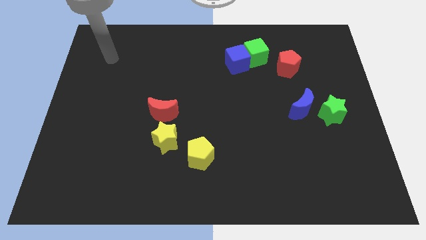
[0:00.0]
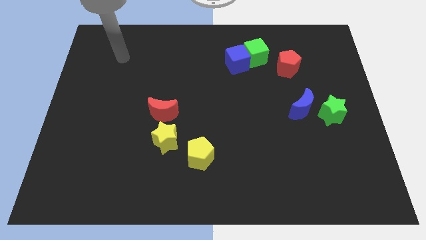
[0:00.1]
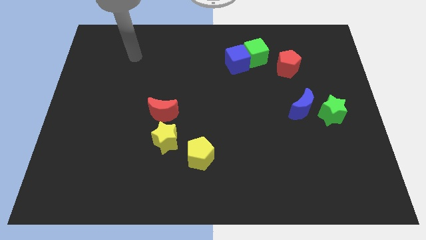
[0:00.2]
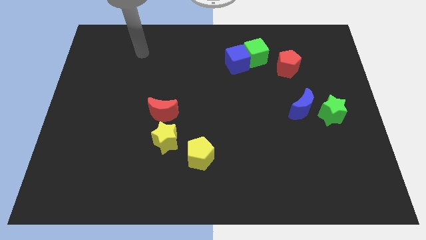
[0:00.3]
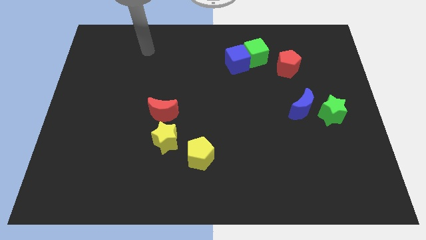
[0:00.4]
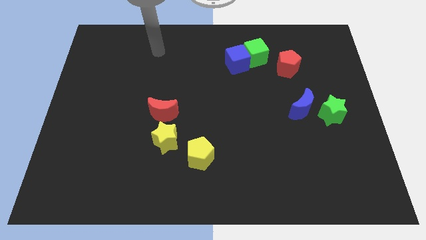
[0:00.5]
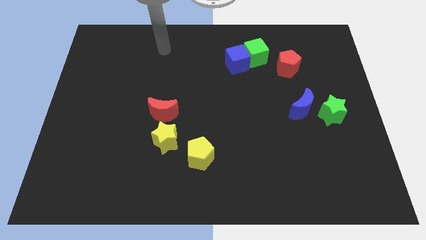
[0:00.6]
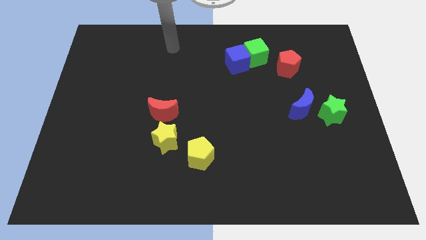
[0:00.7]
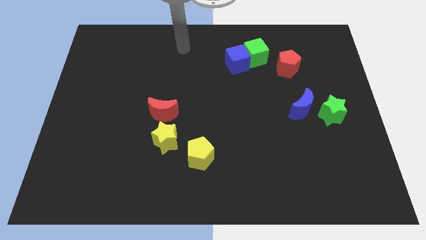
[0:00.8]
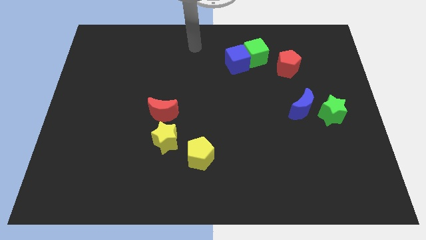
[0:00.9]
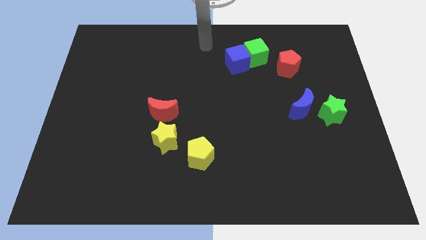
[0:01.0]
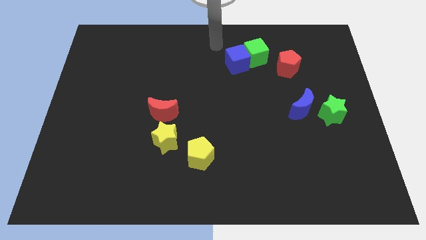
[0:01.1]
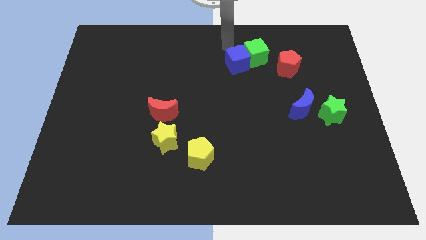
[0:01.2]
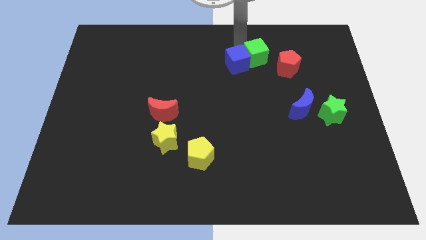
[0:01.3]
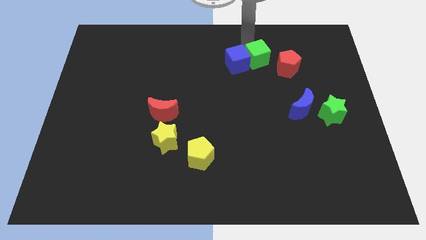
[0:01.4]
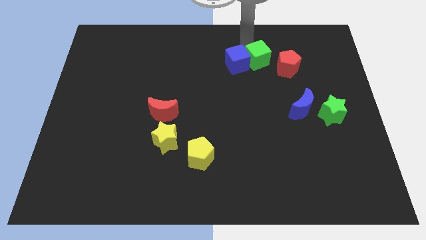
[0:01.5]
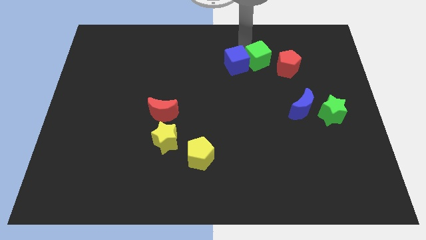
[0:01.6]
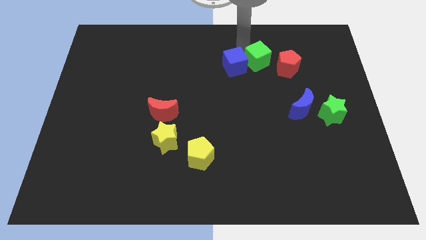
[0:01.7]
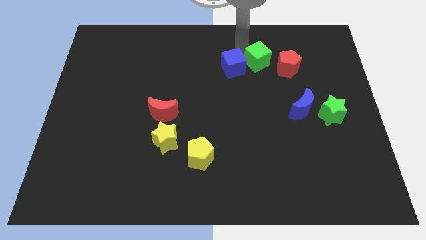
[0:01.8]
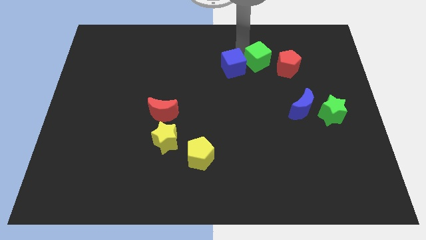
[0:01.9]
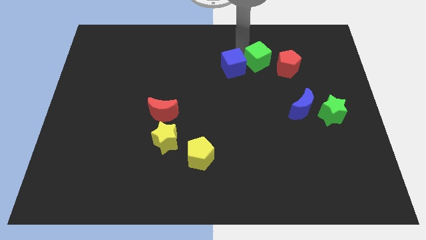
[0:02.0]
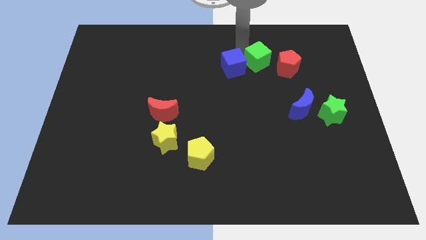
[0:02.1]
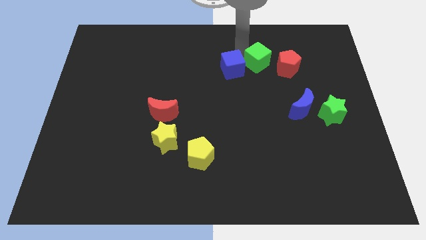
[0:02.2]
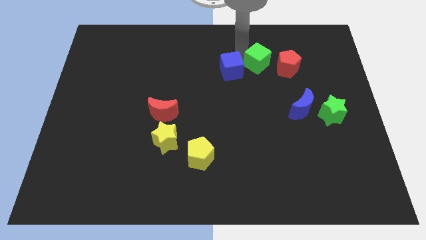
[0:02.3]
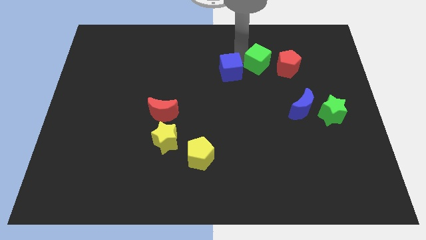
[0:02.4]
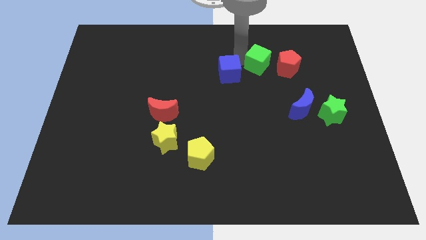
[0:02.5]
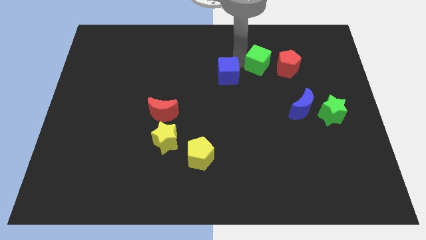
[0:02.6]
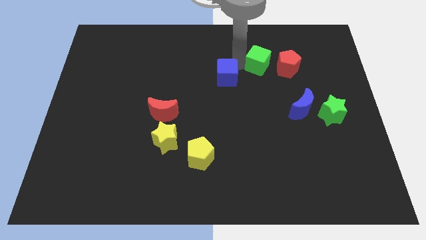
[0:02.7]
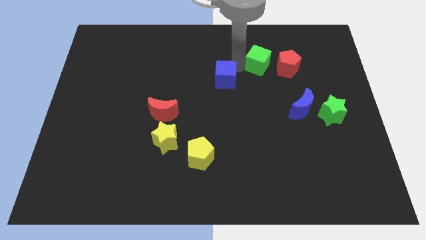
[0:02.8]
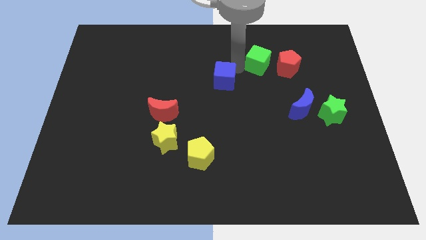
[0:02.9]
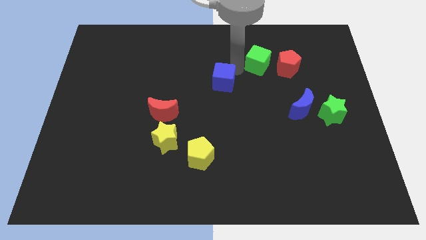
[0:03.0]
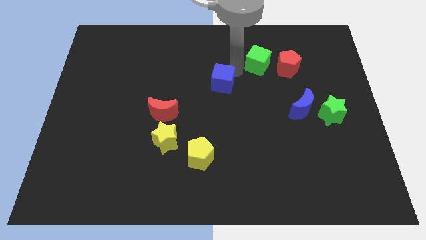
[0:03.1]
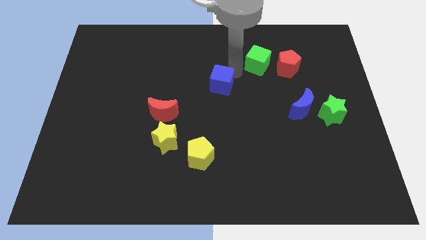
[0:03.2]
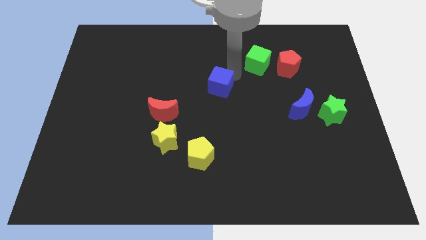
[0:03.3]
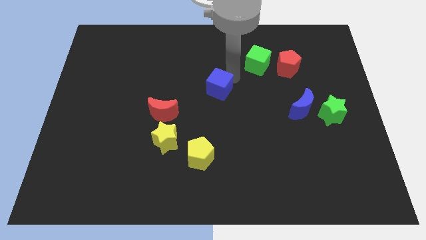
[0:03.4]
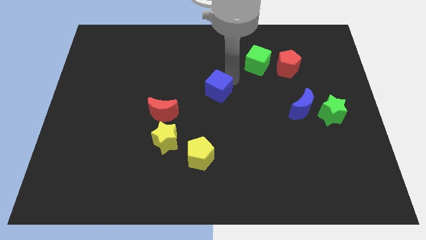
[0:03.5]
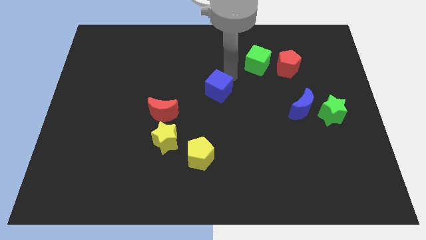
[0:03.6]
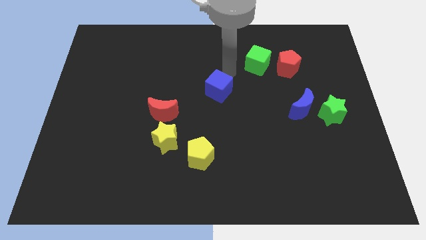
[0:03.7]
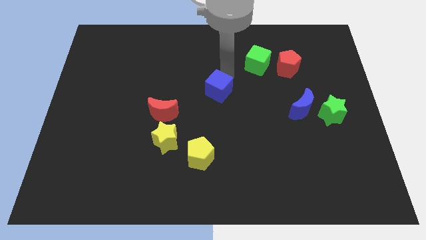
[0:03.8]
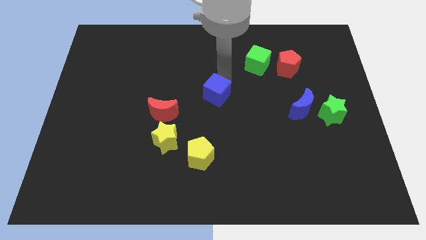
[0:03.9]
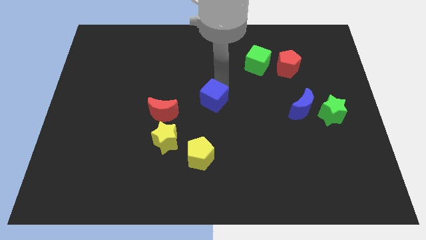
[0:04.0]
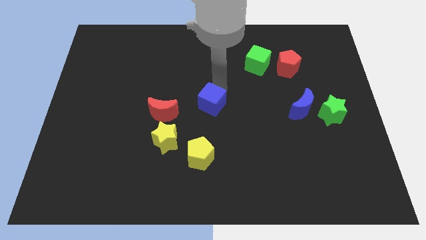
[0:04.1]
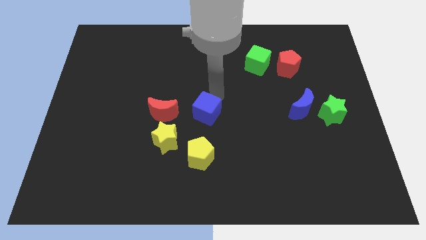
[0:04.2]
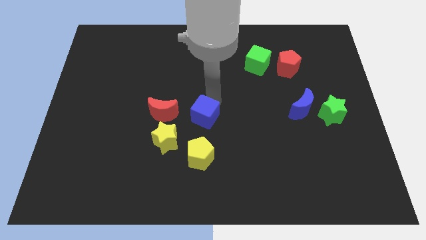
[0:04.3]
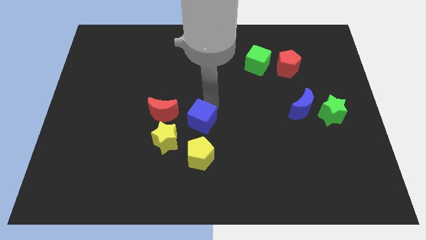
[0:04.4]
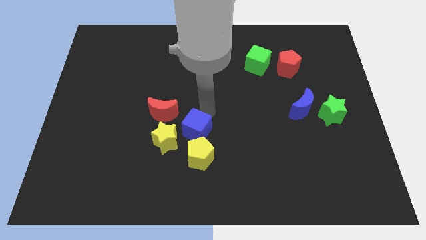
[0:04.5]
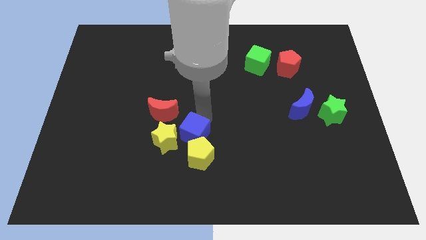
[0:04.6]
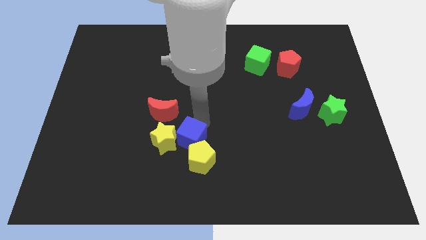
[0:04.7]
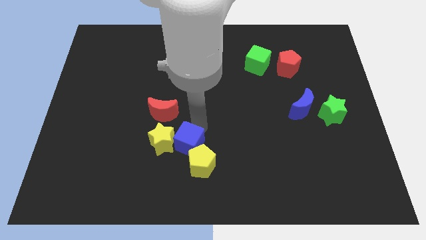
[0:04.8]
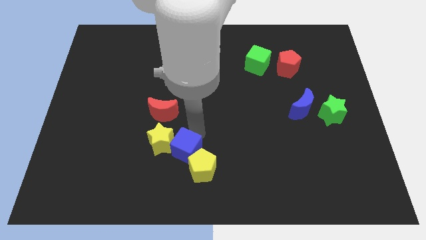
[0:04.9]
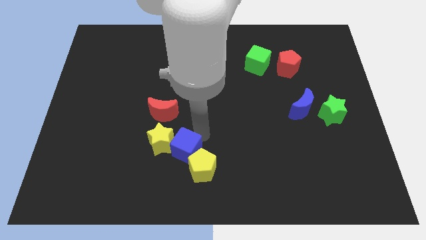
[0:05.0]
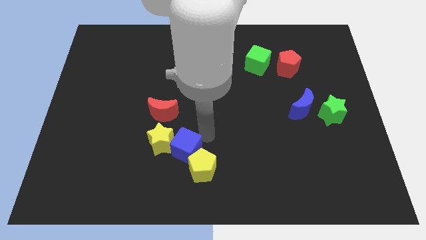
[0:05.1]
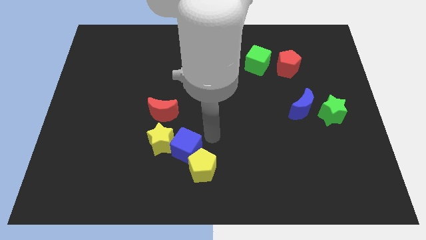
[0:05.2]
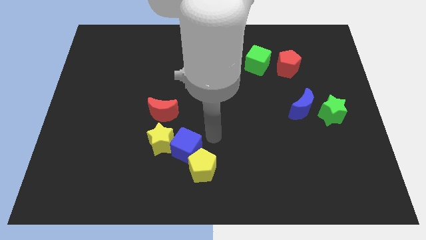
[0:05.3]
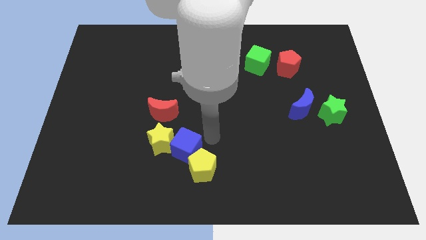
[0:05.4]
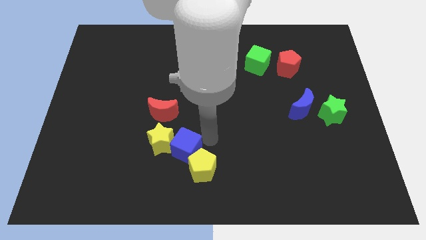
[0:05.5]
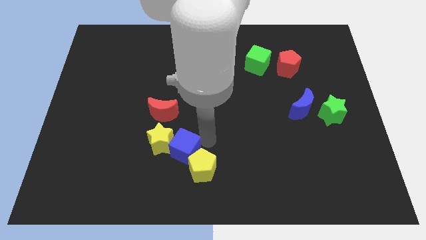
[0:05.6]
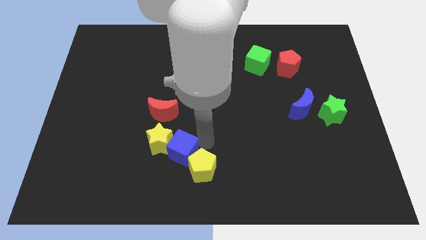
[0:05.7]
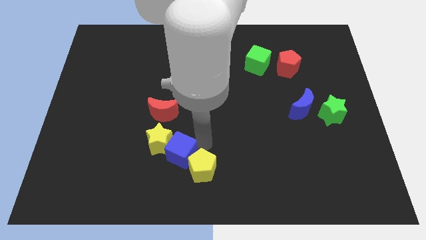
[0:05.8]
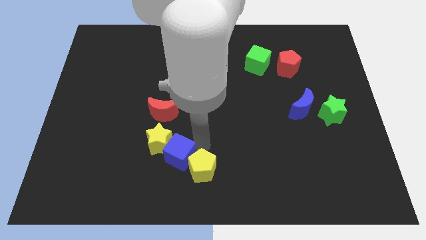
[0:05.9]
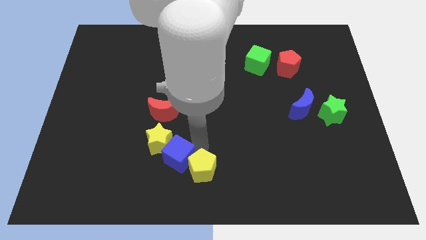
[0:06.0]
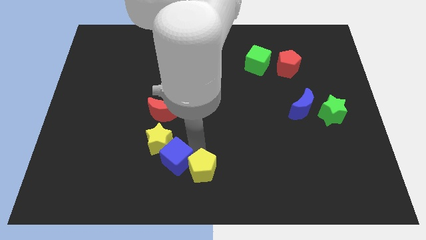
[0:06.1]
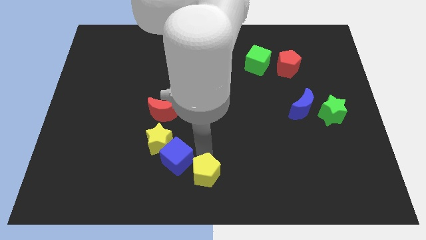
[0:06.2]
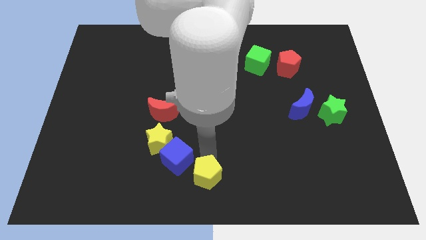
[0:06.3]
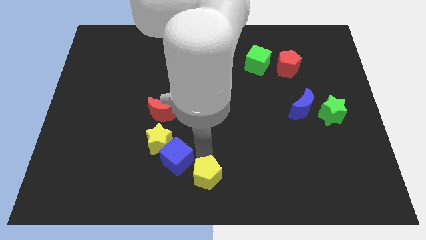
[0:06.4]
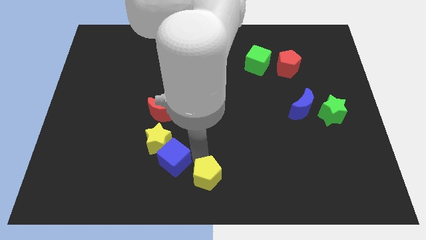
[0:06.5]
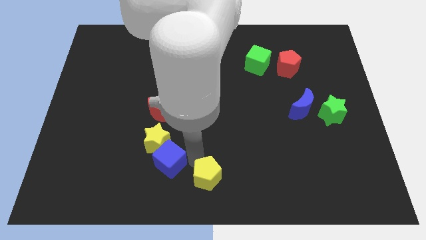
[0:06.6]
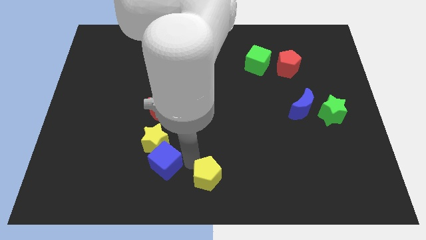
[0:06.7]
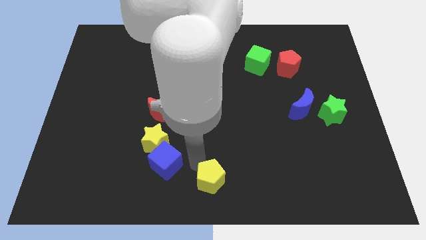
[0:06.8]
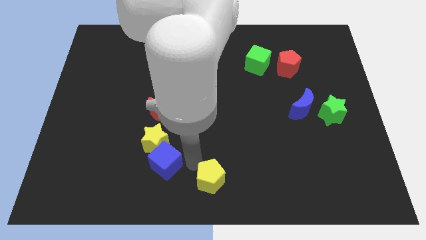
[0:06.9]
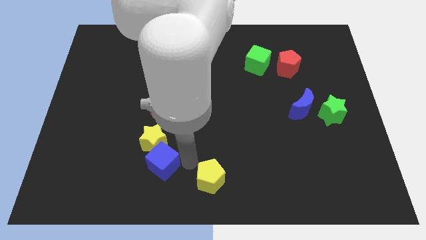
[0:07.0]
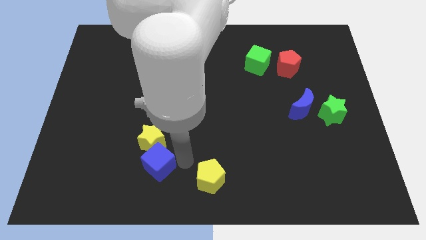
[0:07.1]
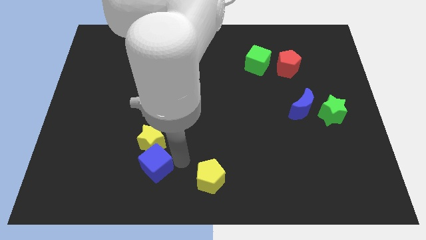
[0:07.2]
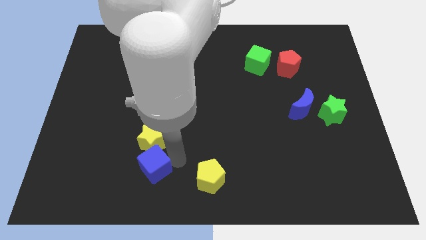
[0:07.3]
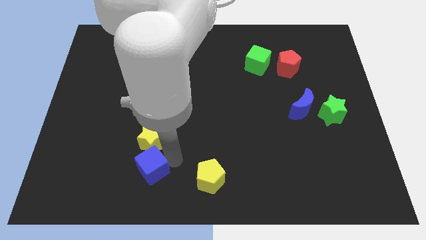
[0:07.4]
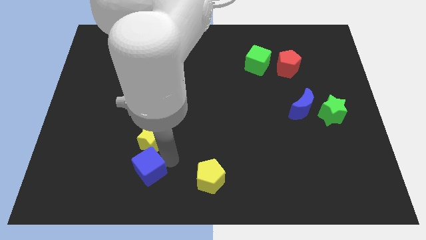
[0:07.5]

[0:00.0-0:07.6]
push the blue cube to the bottom left side of the yellow star
